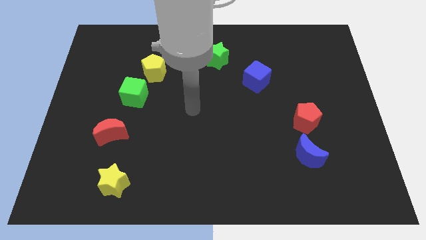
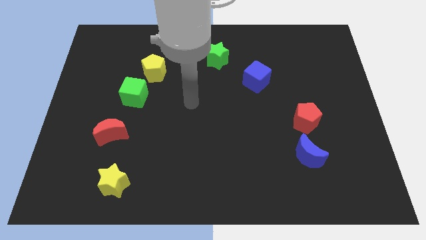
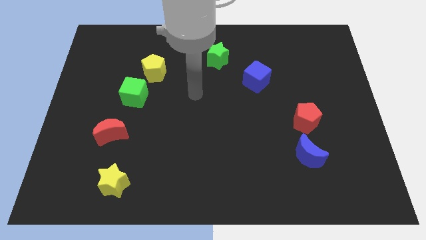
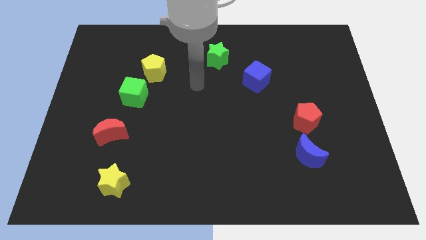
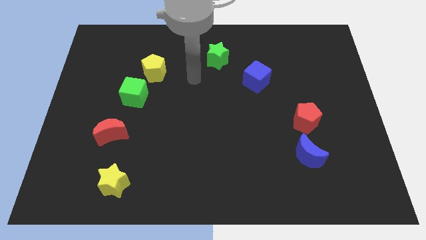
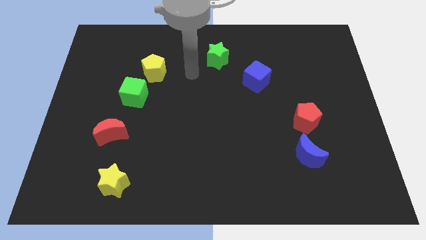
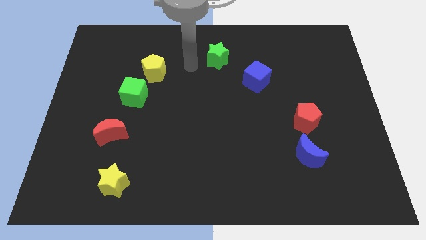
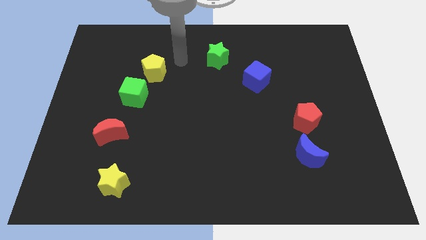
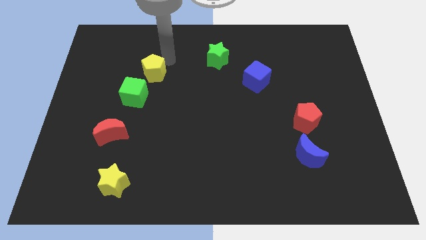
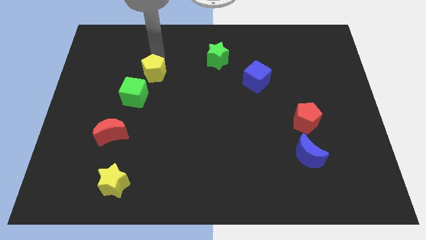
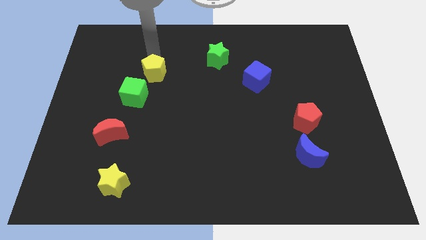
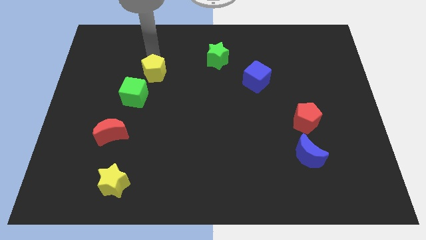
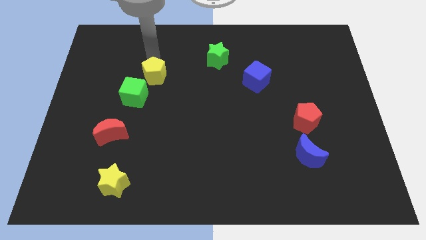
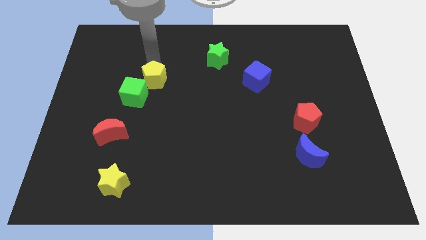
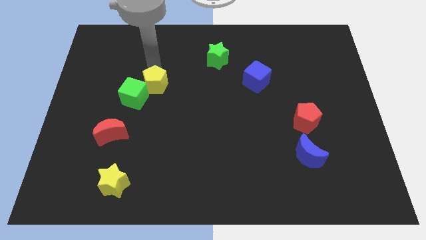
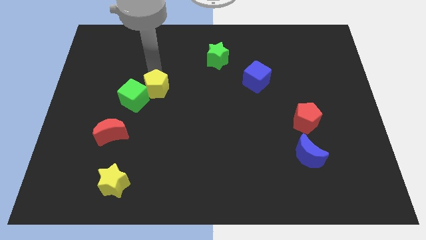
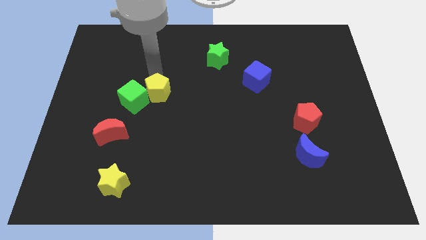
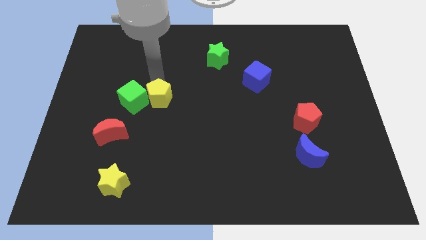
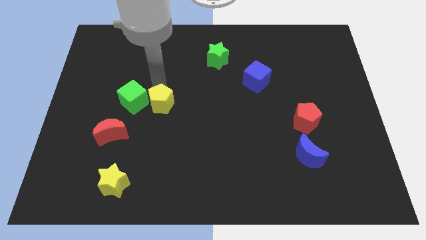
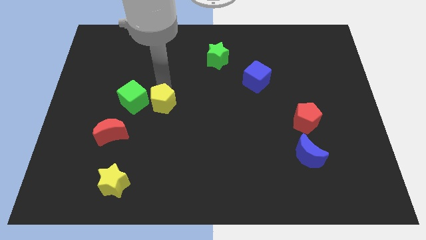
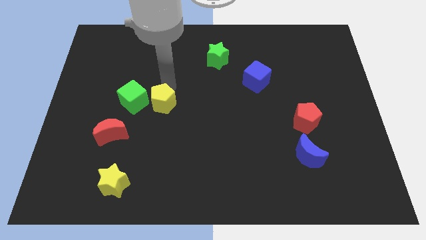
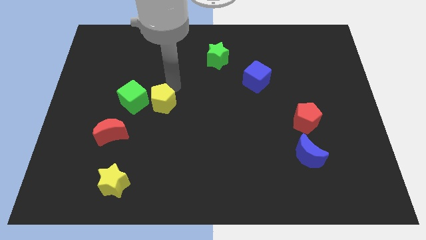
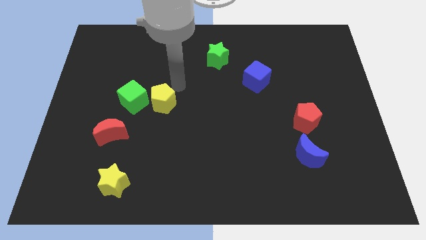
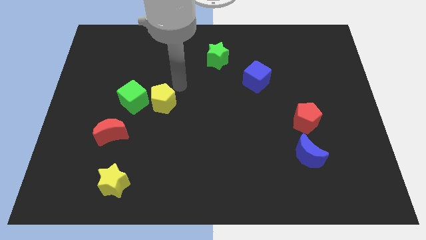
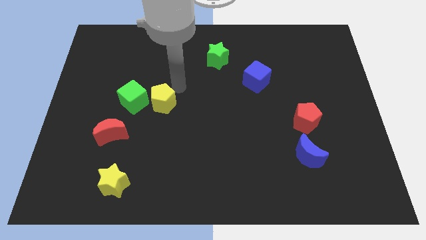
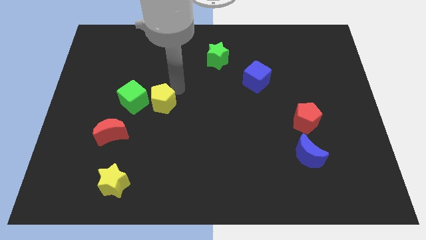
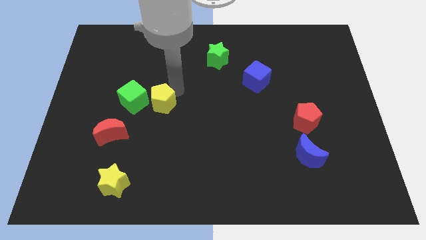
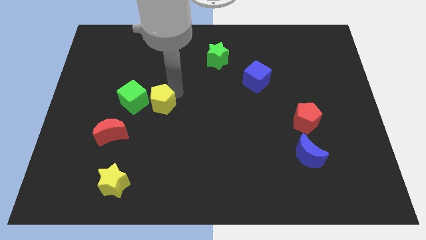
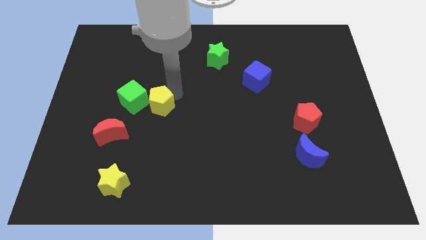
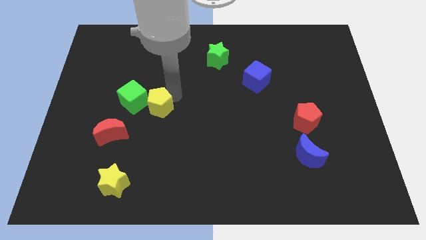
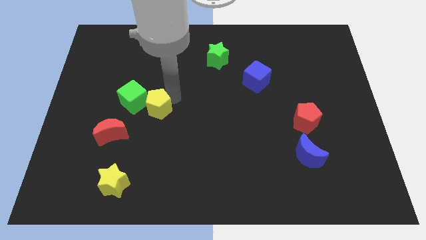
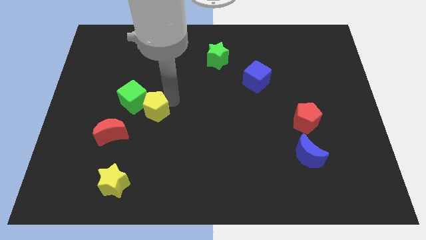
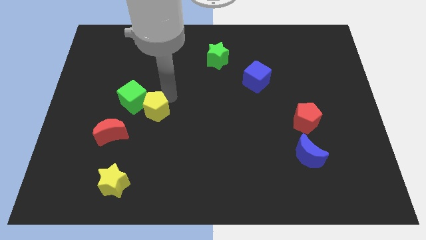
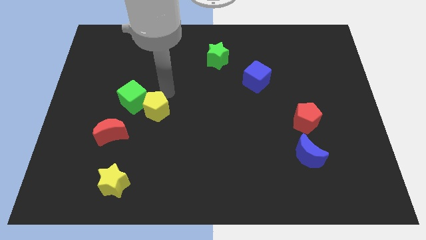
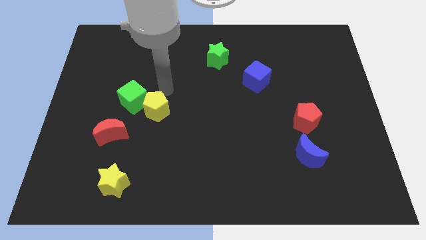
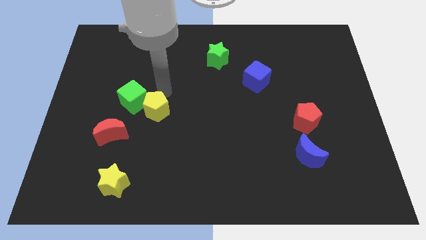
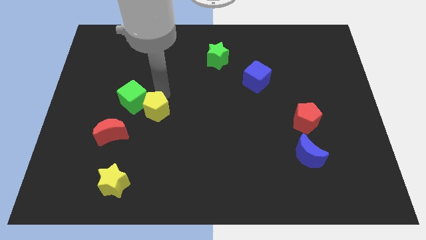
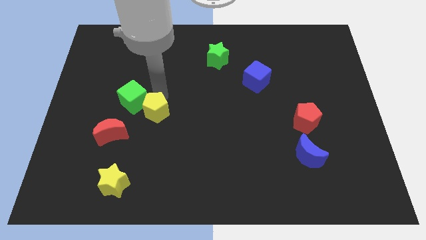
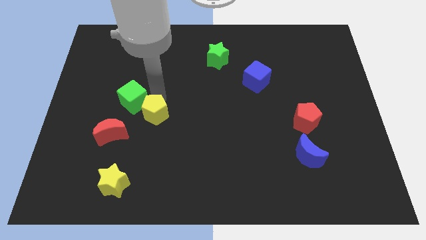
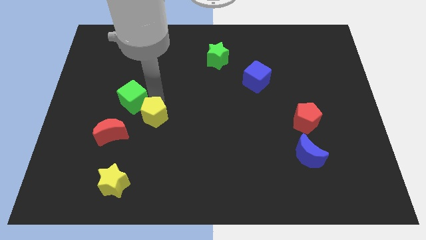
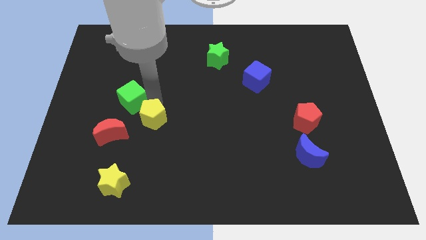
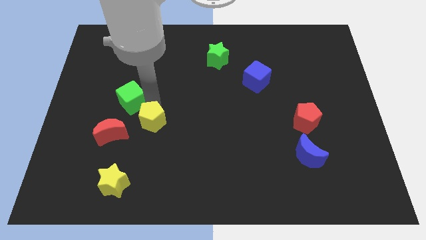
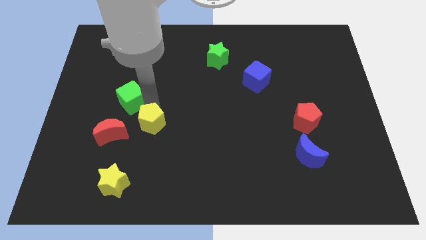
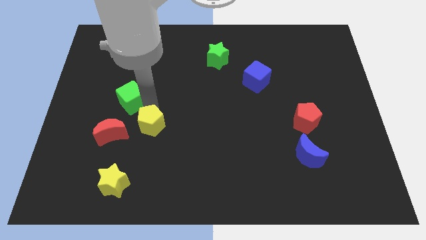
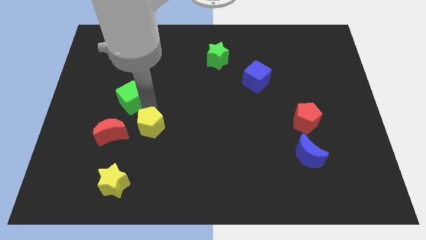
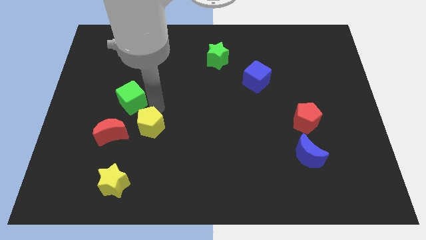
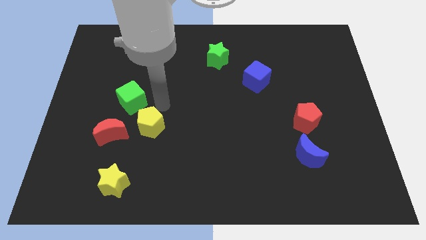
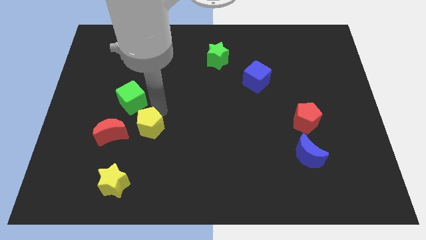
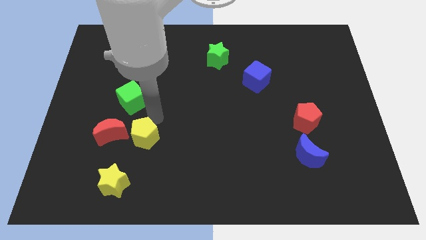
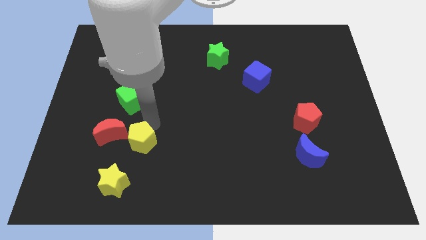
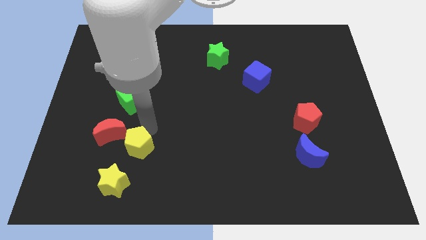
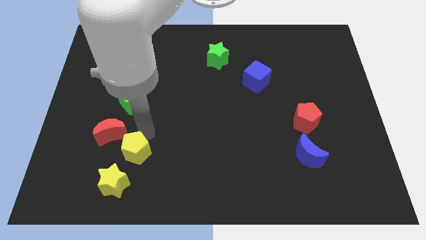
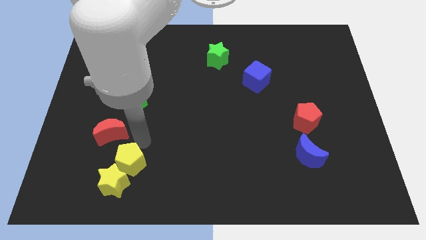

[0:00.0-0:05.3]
move the yellow pentagon towards the yellow star

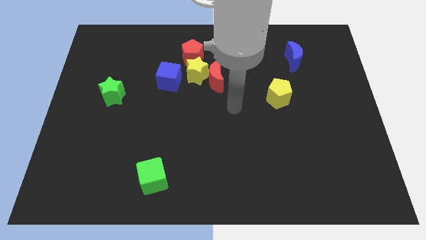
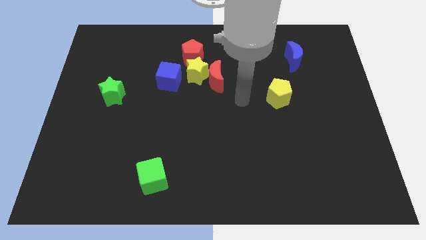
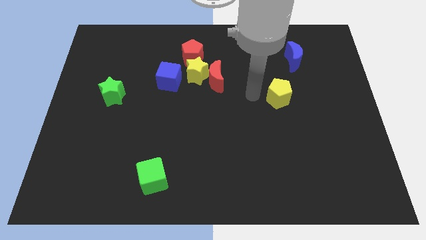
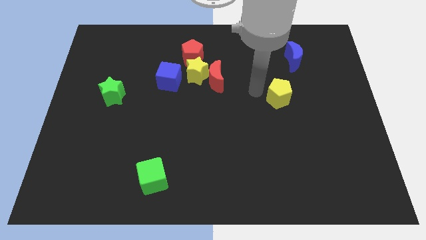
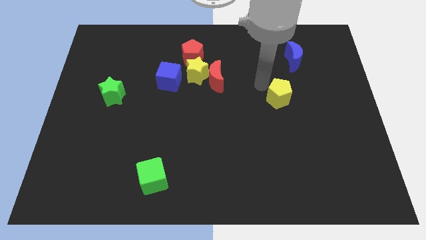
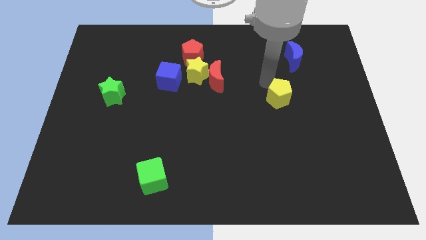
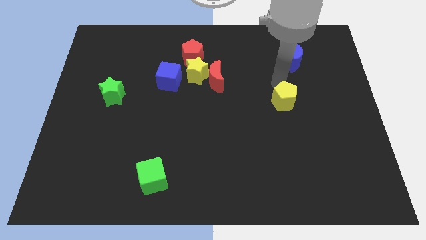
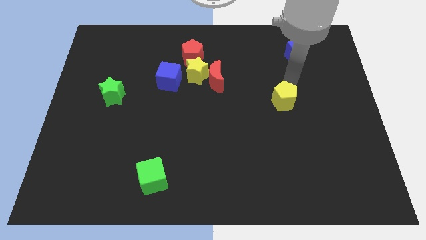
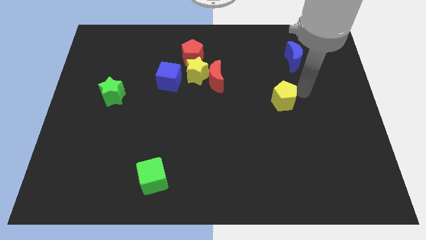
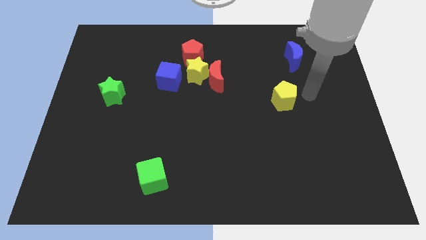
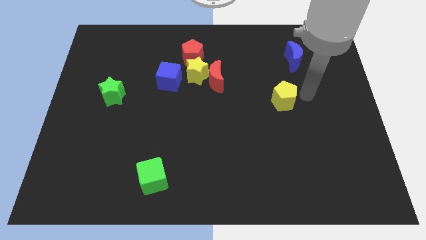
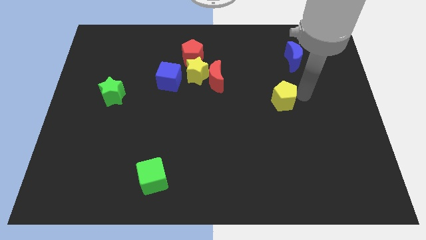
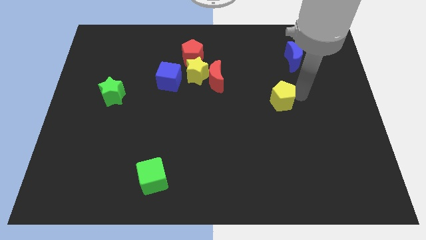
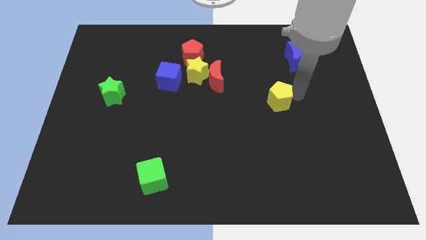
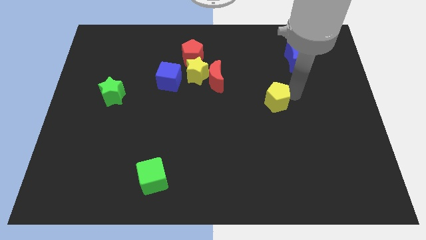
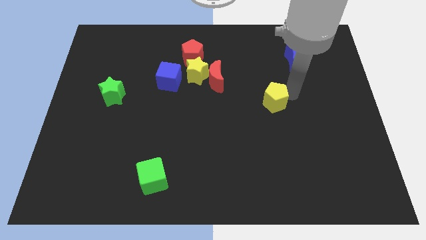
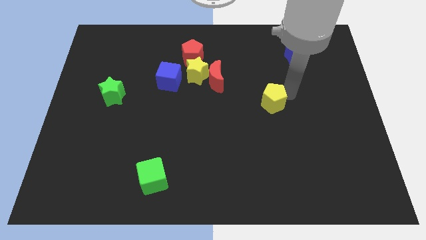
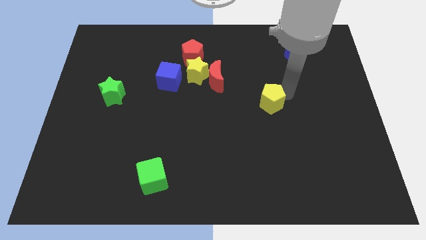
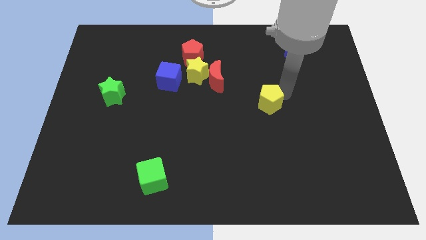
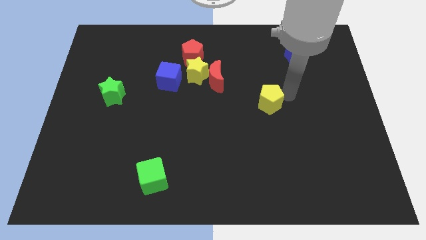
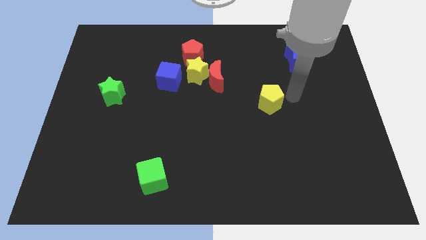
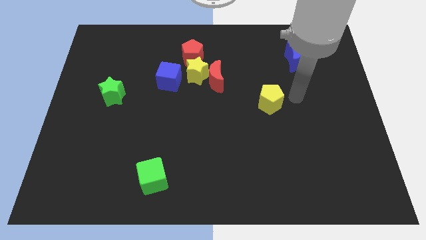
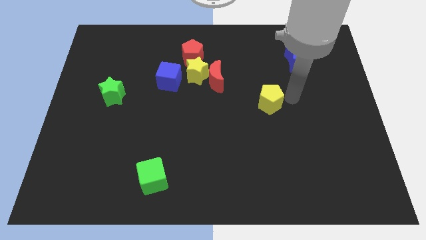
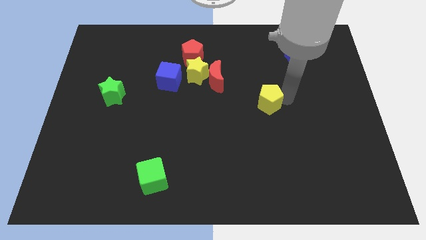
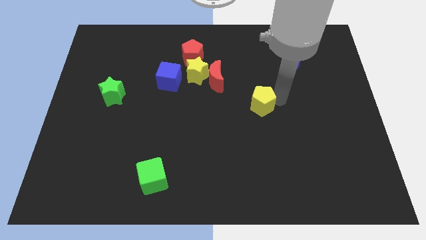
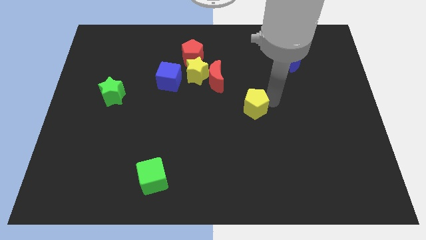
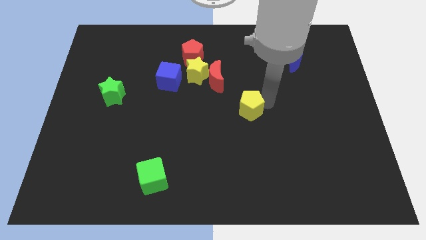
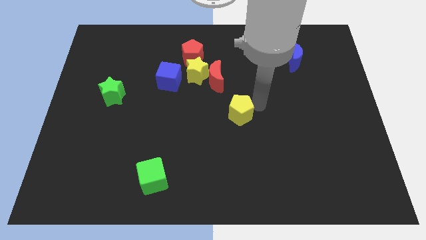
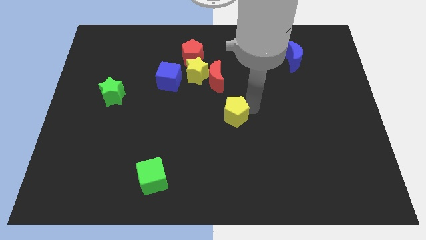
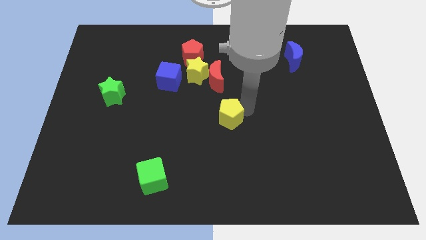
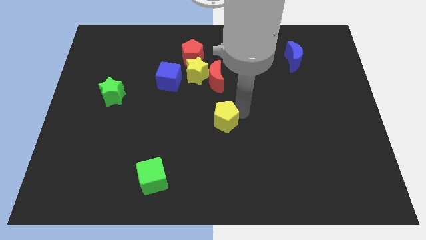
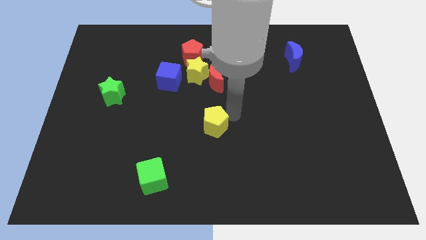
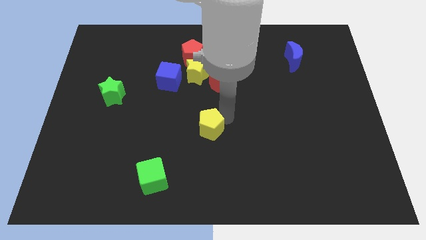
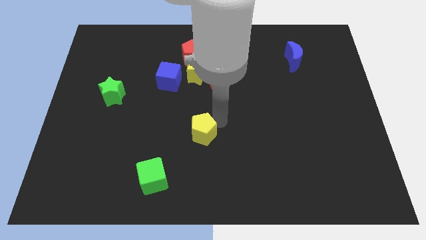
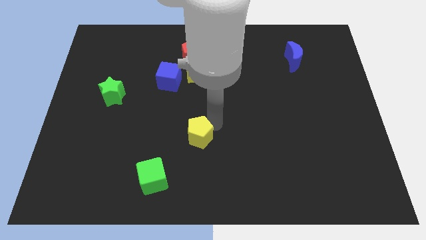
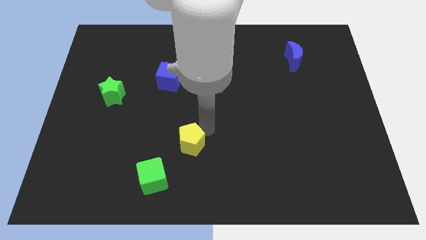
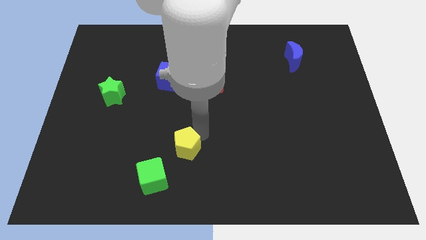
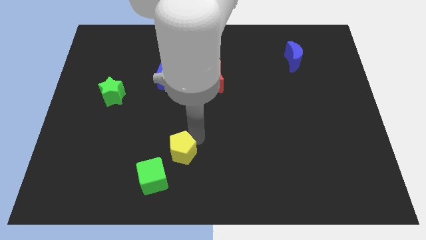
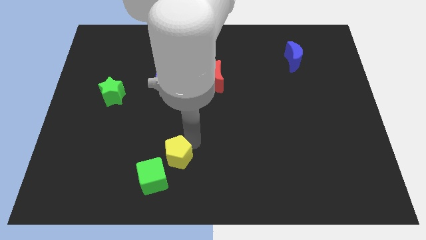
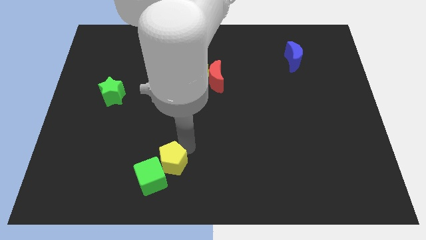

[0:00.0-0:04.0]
put the yellow pentagon towards the green cube
